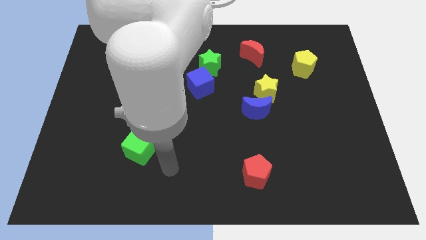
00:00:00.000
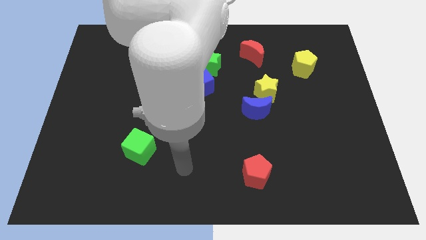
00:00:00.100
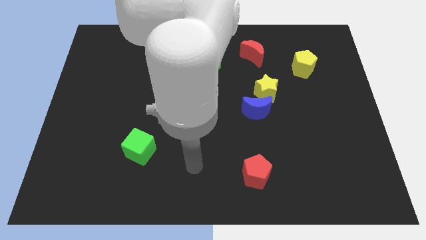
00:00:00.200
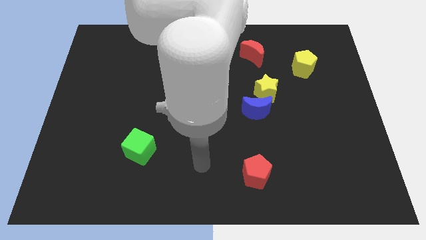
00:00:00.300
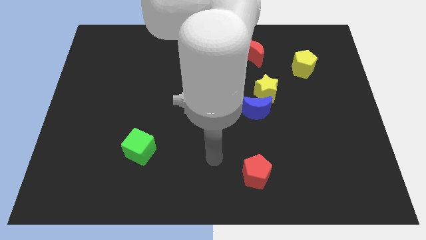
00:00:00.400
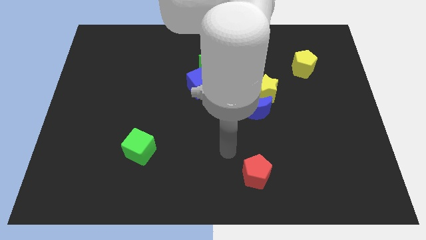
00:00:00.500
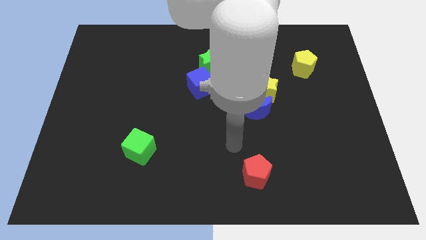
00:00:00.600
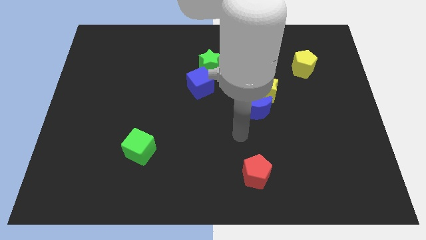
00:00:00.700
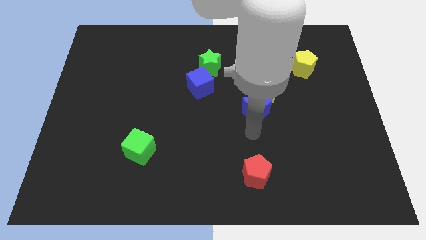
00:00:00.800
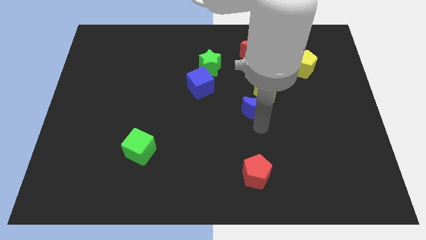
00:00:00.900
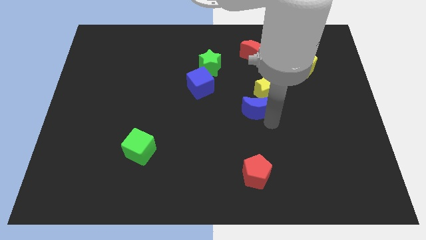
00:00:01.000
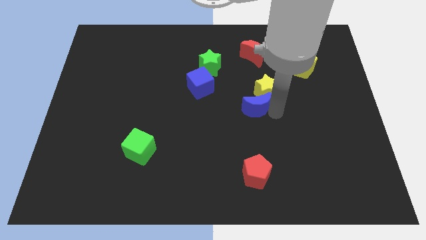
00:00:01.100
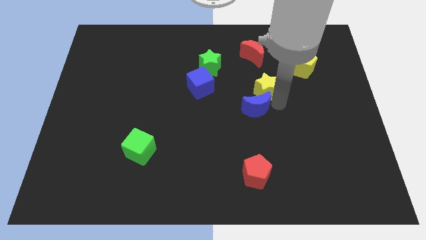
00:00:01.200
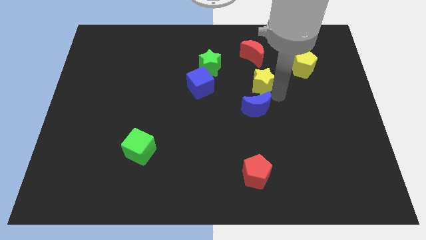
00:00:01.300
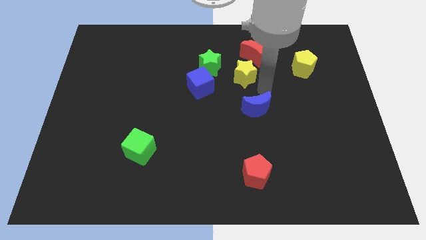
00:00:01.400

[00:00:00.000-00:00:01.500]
separate the blue moon from the yellow star

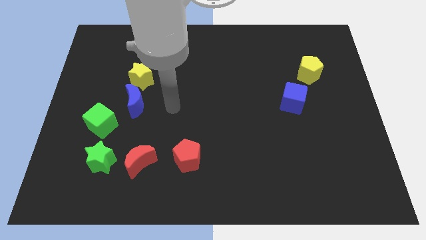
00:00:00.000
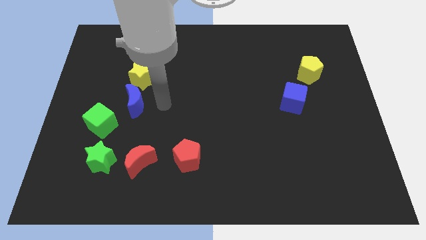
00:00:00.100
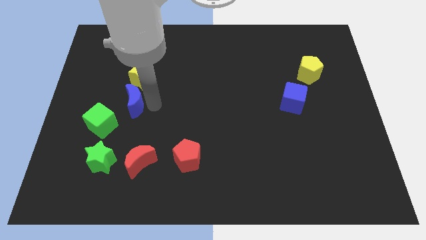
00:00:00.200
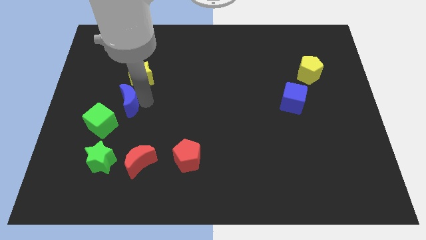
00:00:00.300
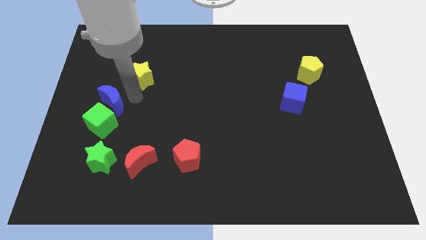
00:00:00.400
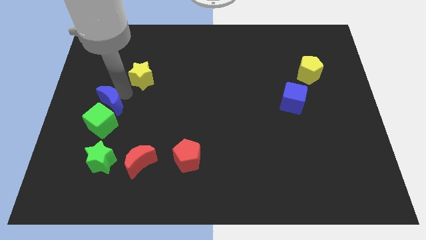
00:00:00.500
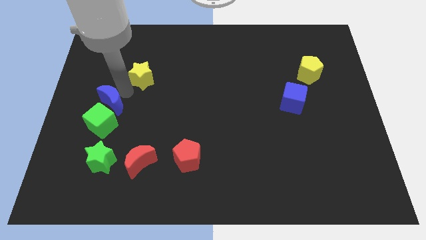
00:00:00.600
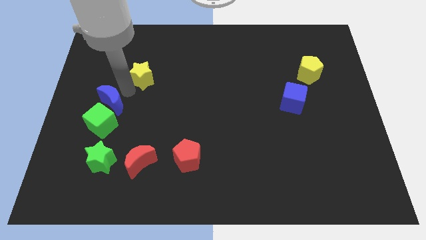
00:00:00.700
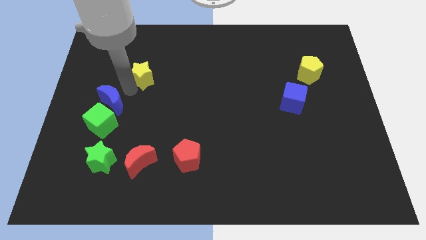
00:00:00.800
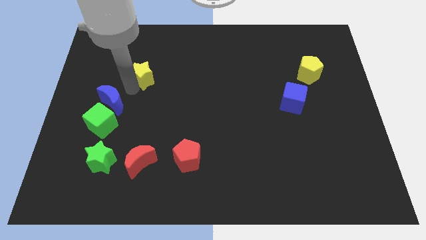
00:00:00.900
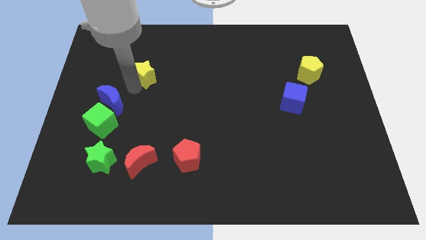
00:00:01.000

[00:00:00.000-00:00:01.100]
pull the yellow star apart from the blue moon

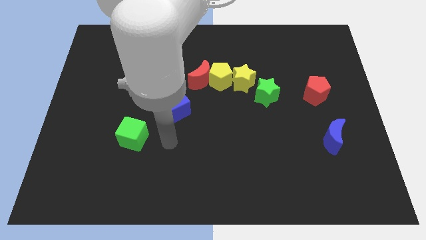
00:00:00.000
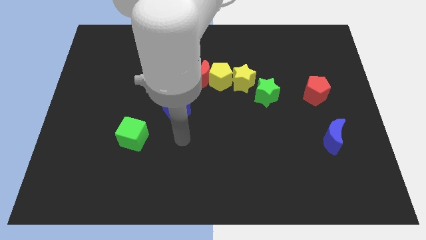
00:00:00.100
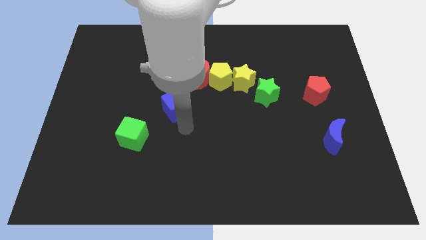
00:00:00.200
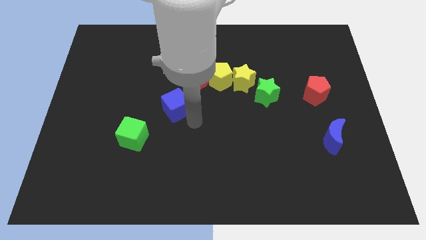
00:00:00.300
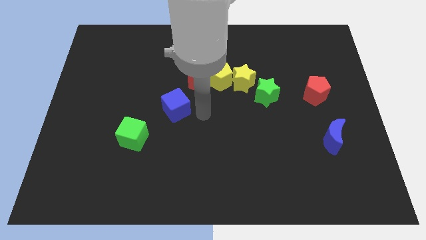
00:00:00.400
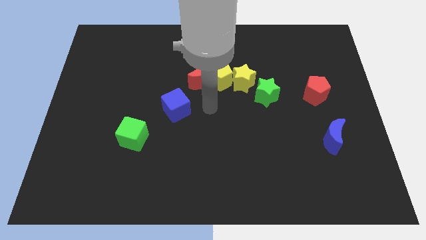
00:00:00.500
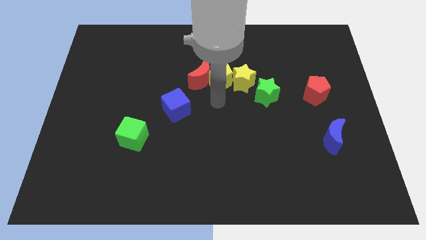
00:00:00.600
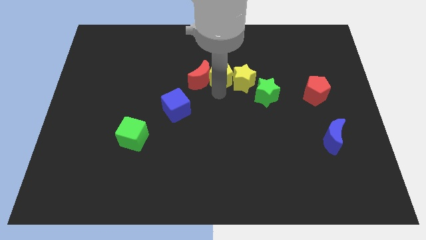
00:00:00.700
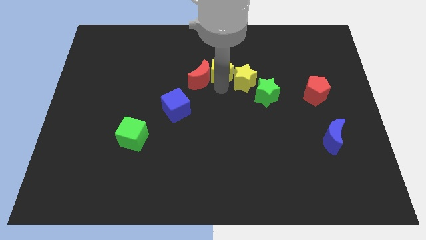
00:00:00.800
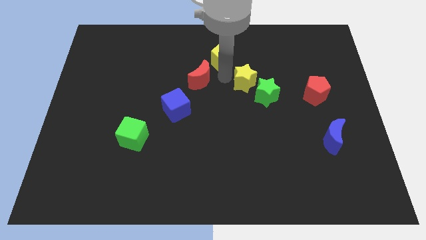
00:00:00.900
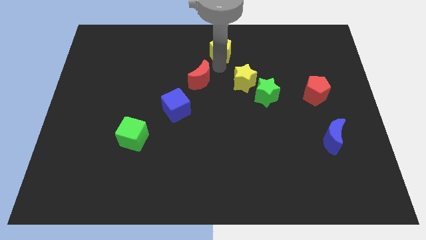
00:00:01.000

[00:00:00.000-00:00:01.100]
move the red moon away from the yellow pentagon

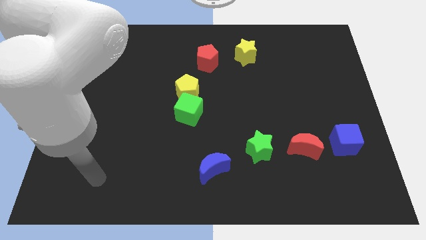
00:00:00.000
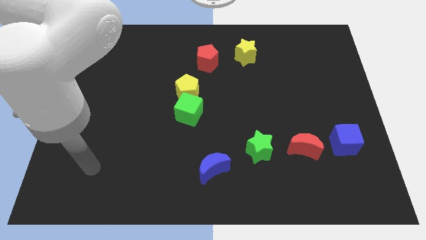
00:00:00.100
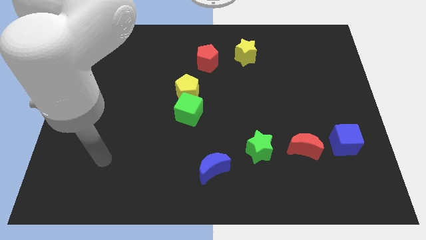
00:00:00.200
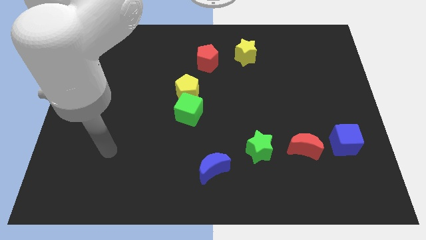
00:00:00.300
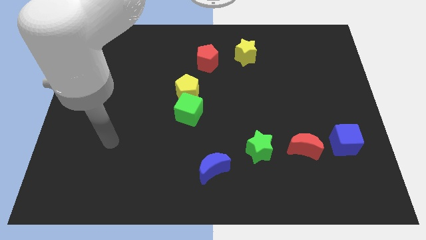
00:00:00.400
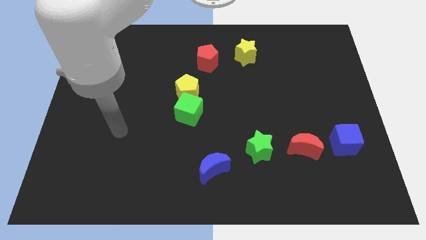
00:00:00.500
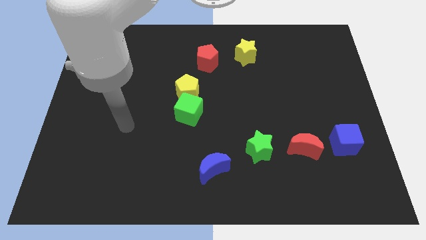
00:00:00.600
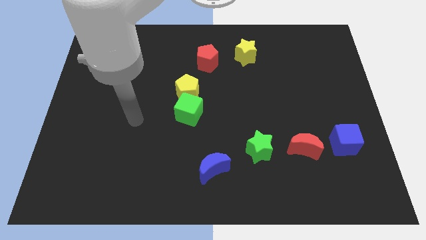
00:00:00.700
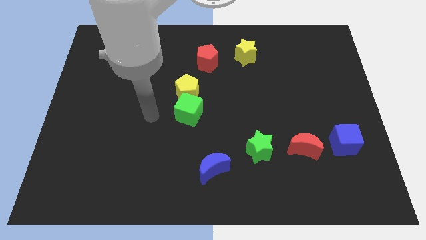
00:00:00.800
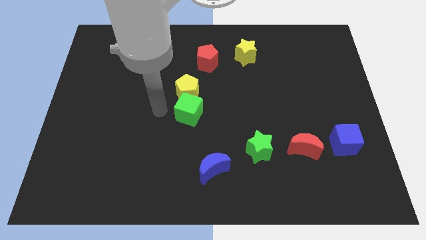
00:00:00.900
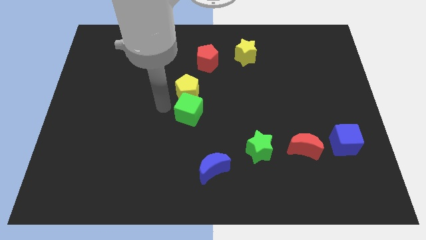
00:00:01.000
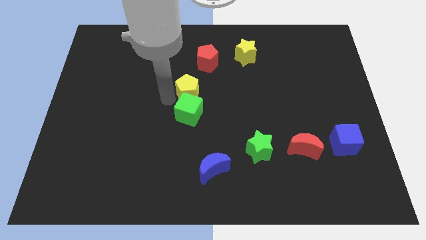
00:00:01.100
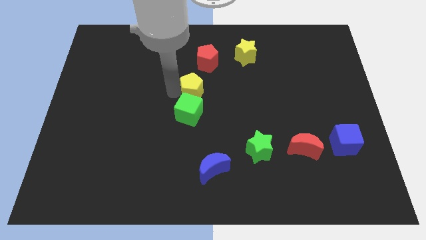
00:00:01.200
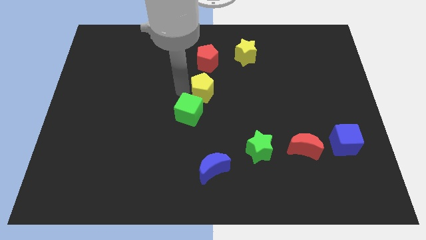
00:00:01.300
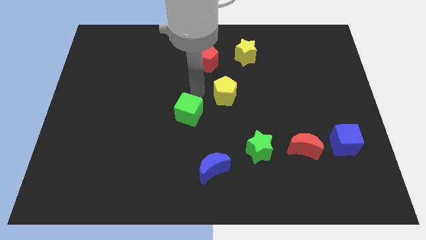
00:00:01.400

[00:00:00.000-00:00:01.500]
separate the green cube from the yellow pentagon

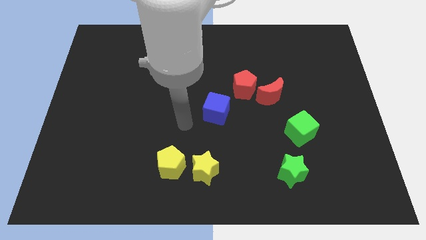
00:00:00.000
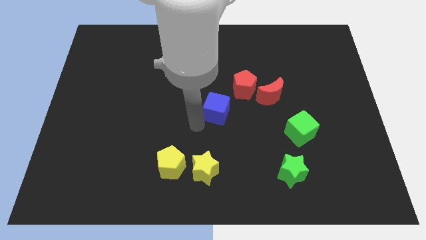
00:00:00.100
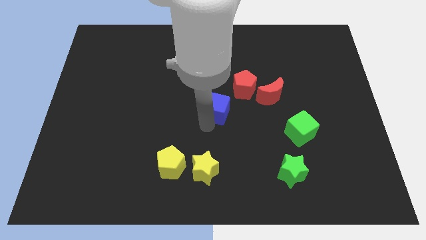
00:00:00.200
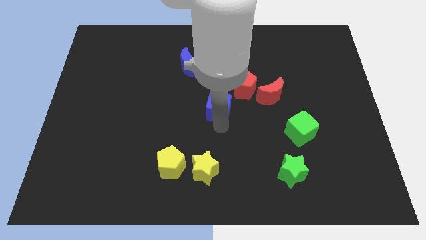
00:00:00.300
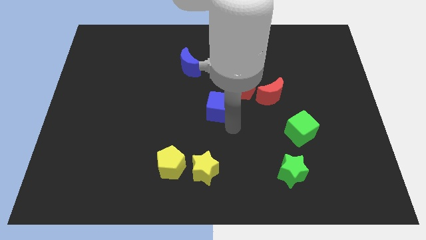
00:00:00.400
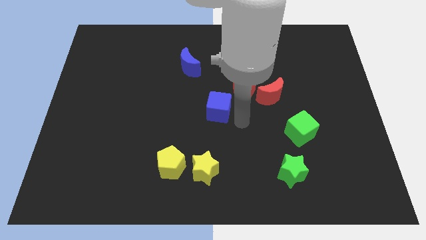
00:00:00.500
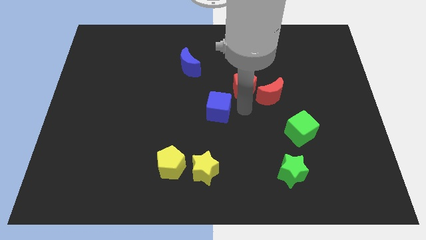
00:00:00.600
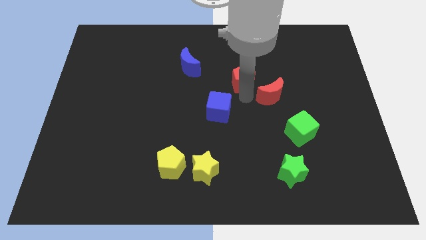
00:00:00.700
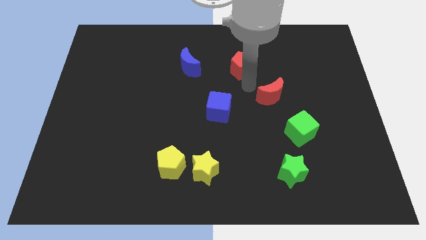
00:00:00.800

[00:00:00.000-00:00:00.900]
move the red moon away from the red pentagon

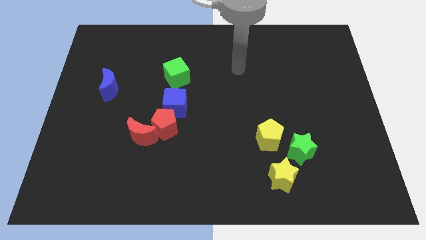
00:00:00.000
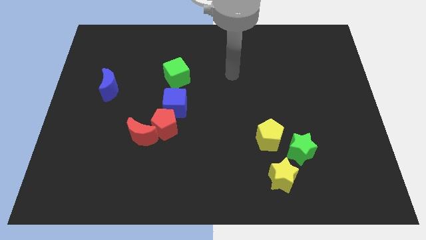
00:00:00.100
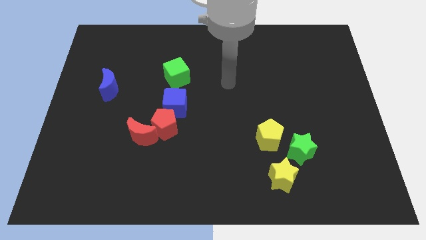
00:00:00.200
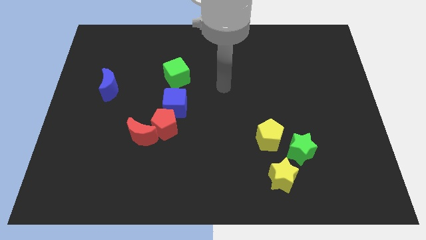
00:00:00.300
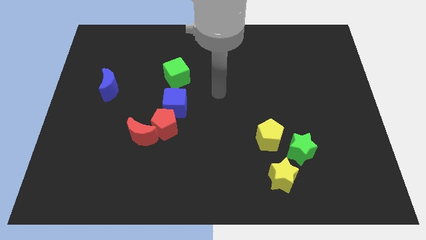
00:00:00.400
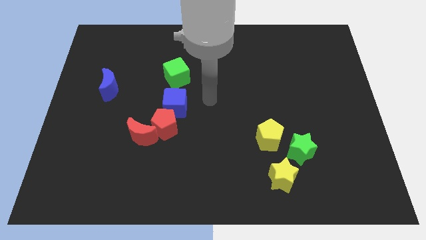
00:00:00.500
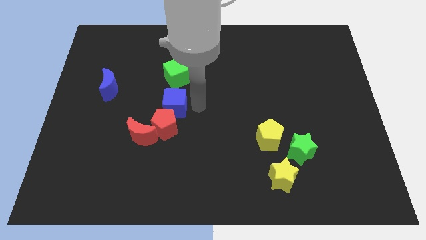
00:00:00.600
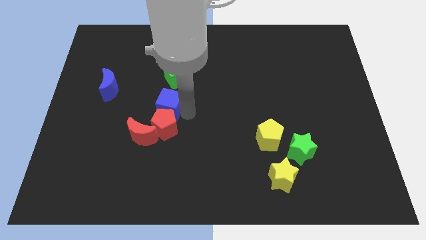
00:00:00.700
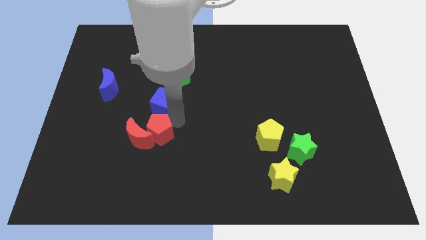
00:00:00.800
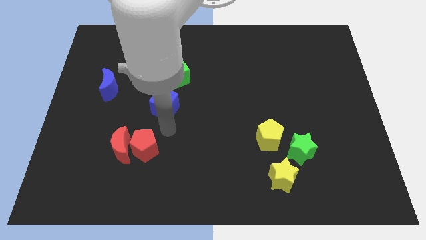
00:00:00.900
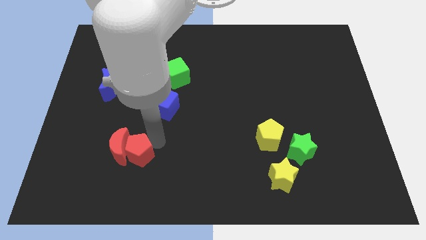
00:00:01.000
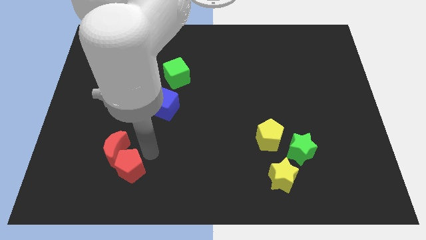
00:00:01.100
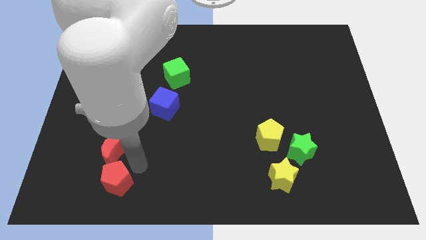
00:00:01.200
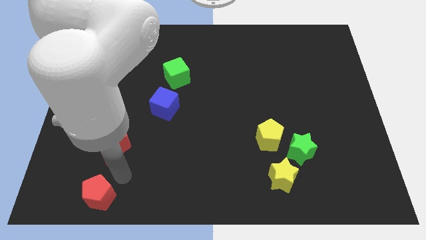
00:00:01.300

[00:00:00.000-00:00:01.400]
separate the red moon from the red pentagon

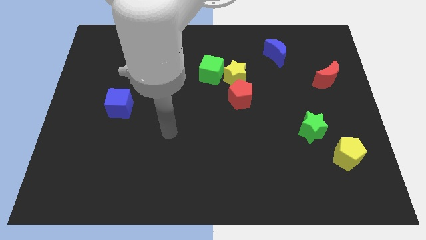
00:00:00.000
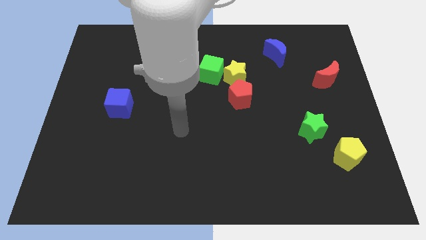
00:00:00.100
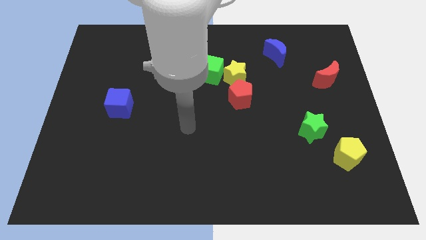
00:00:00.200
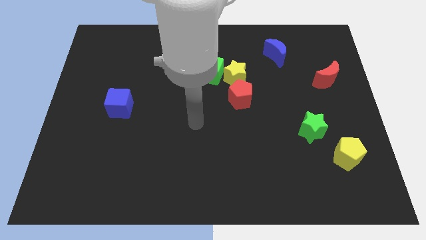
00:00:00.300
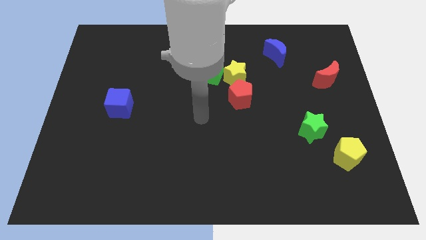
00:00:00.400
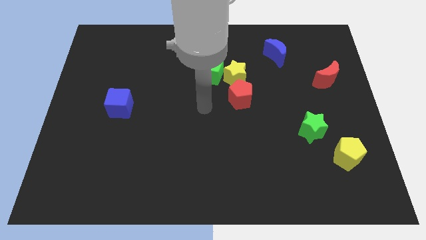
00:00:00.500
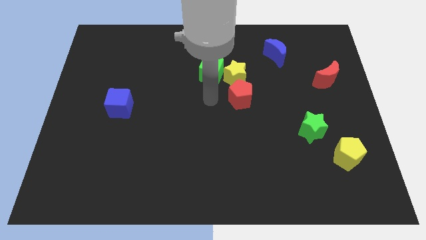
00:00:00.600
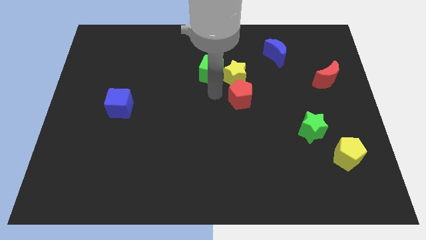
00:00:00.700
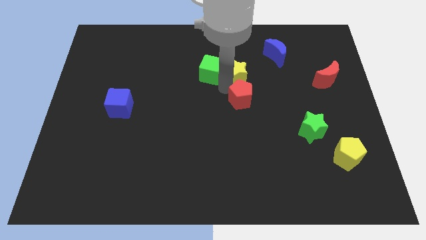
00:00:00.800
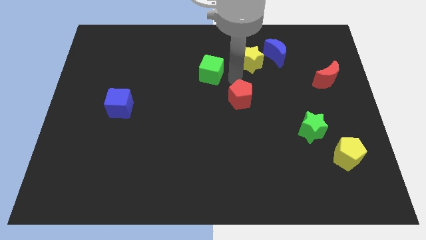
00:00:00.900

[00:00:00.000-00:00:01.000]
move the green cube away from the yellow star

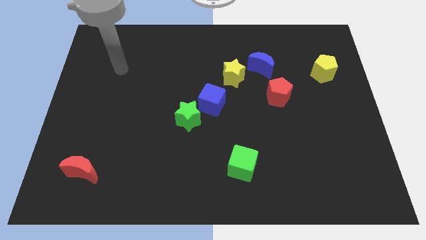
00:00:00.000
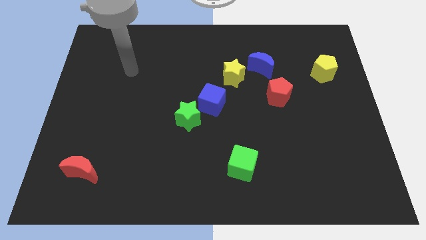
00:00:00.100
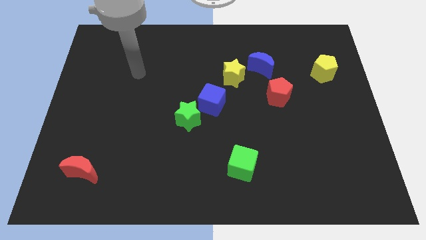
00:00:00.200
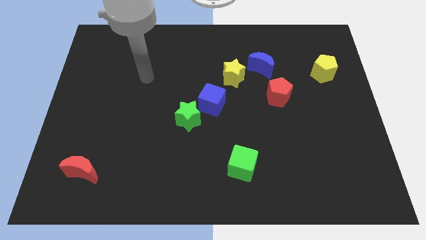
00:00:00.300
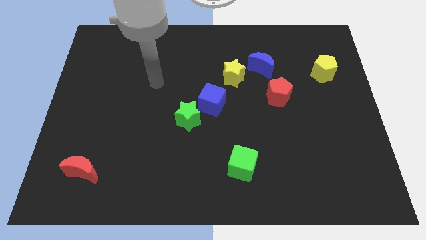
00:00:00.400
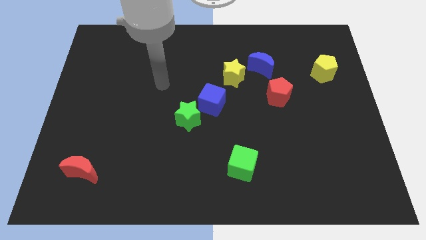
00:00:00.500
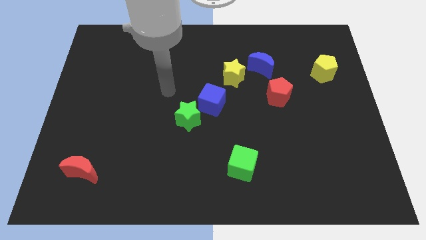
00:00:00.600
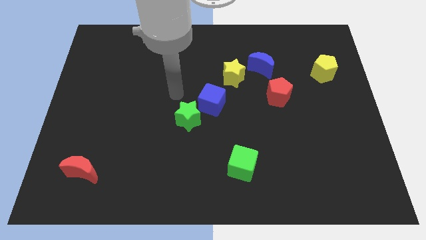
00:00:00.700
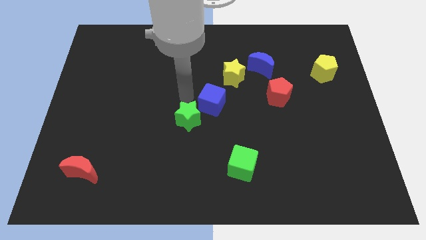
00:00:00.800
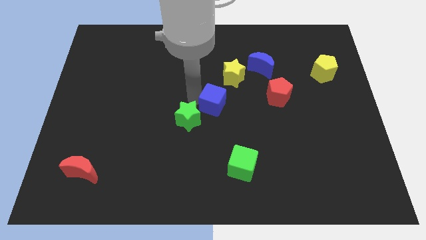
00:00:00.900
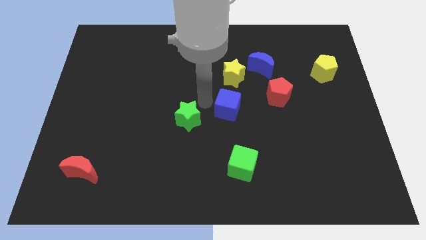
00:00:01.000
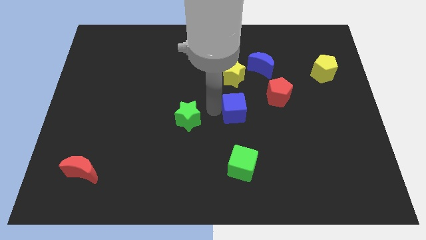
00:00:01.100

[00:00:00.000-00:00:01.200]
separate the green star from the blue cube
